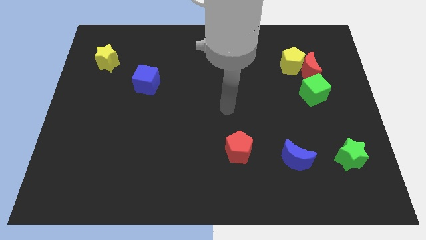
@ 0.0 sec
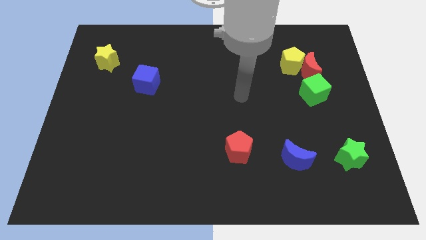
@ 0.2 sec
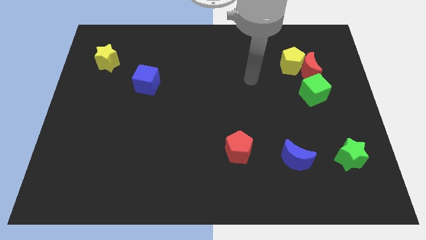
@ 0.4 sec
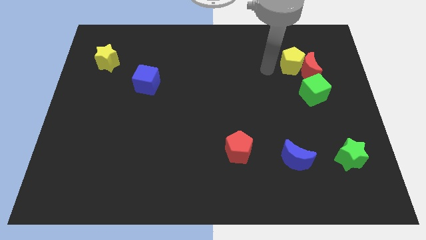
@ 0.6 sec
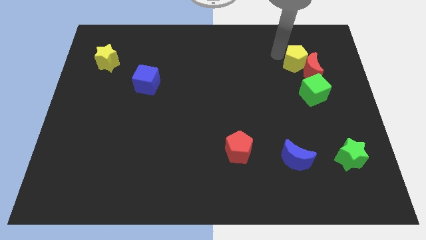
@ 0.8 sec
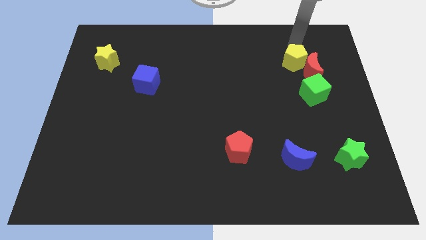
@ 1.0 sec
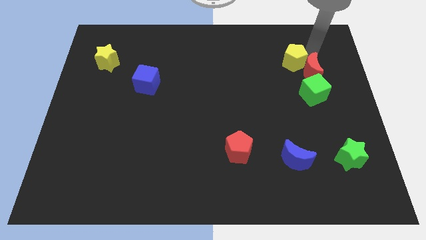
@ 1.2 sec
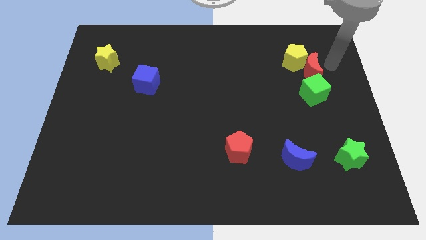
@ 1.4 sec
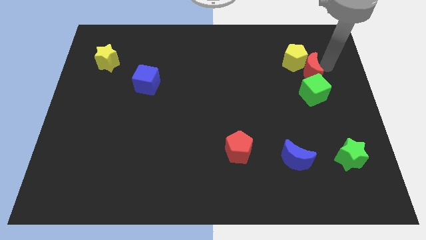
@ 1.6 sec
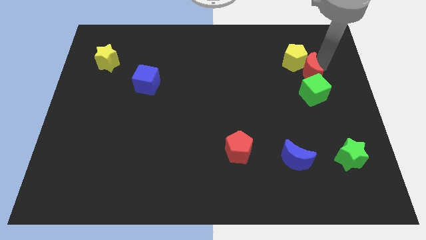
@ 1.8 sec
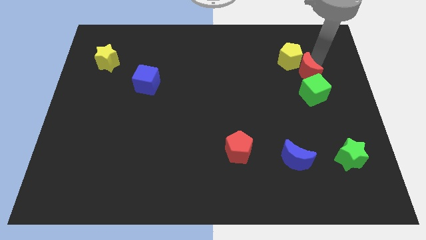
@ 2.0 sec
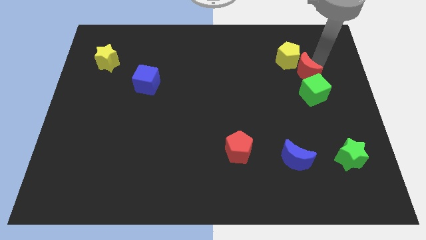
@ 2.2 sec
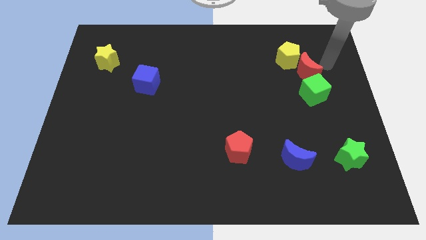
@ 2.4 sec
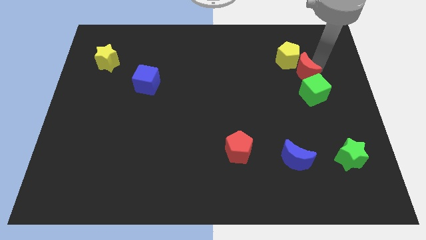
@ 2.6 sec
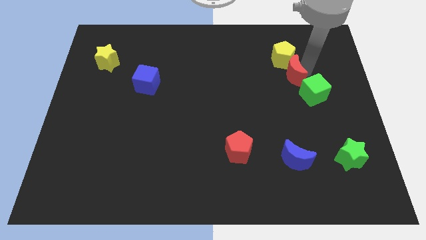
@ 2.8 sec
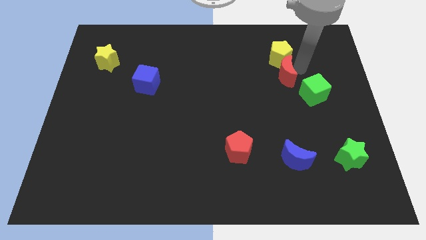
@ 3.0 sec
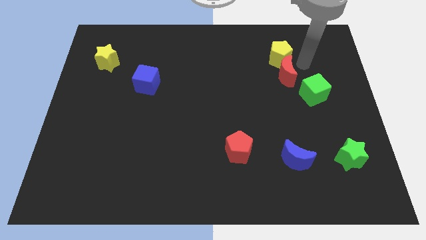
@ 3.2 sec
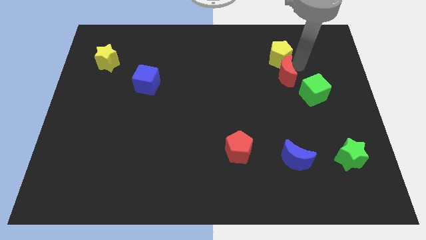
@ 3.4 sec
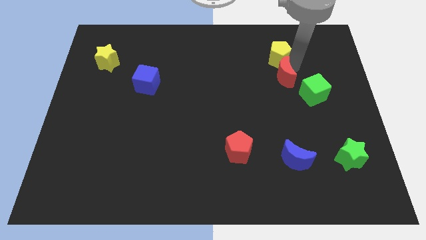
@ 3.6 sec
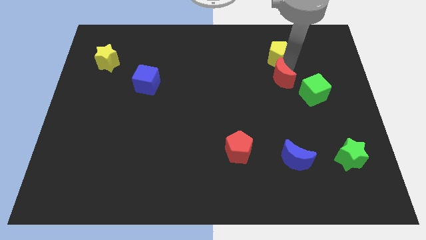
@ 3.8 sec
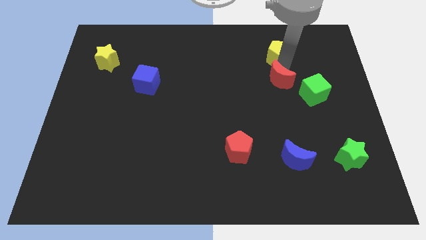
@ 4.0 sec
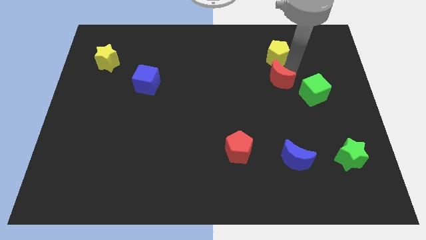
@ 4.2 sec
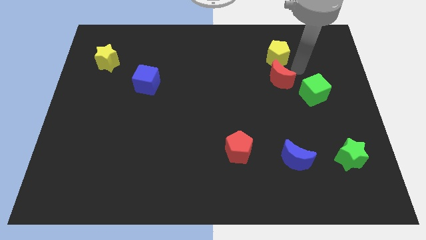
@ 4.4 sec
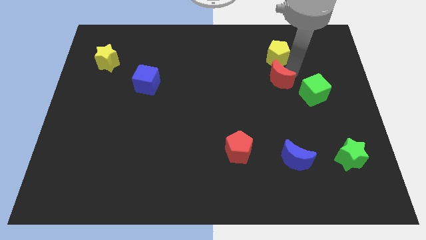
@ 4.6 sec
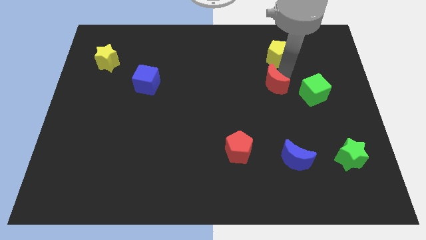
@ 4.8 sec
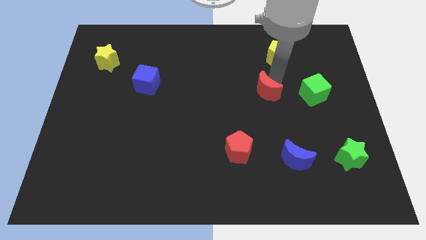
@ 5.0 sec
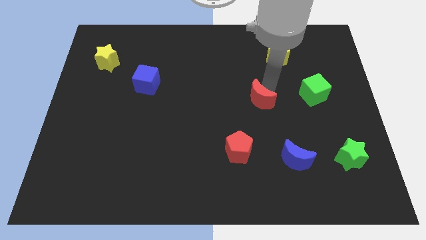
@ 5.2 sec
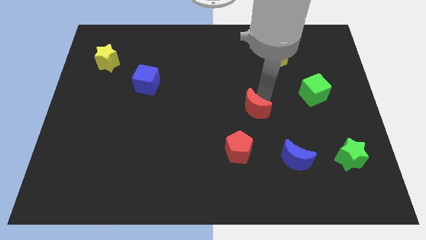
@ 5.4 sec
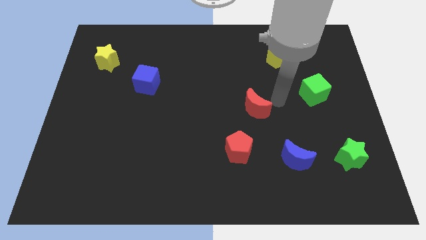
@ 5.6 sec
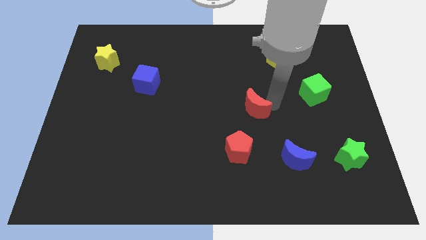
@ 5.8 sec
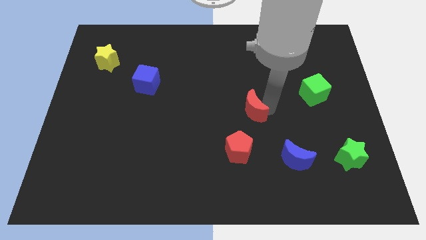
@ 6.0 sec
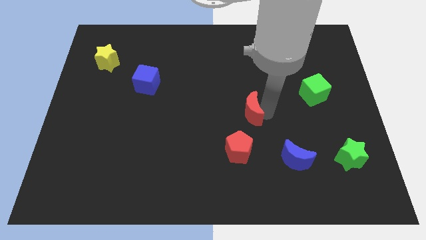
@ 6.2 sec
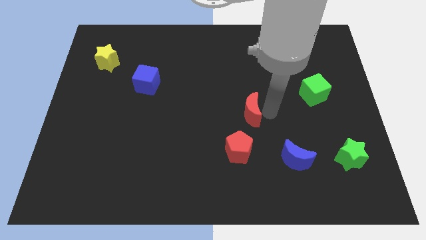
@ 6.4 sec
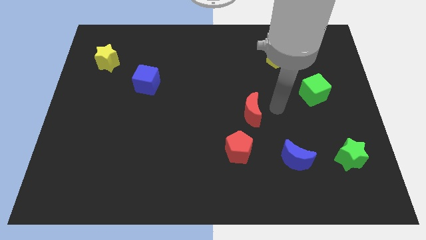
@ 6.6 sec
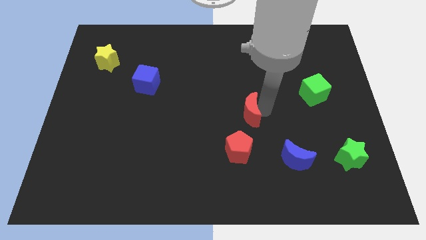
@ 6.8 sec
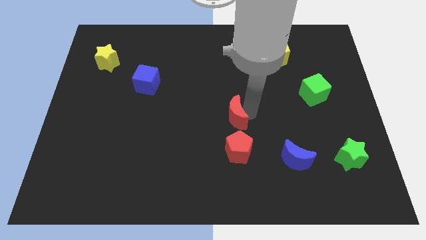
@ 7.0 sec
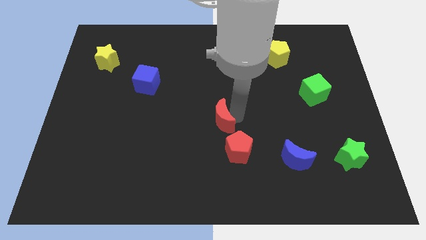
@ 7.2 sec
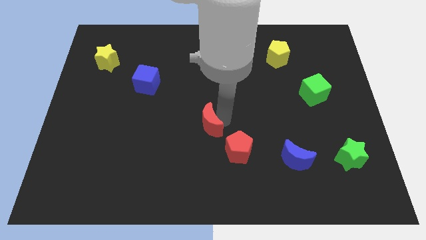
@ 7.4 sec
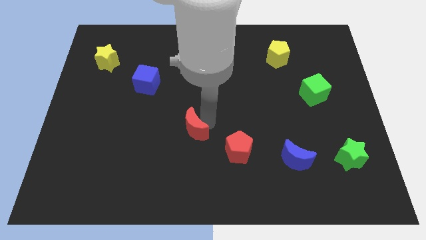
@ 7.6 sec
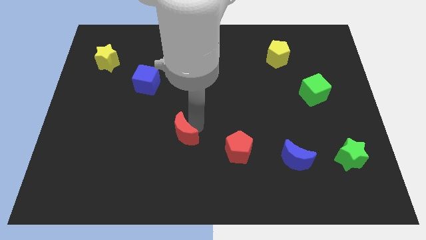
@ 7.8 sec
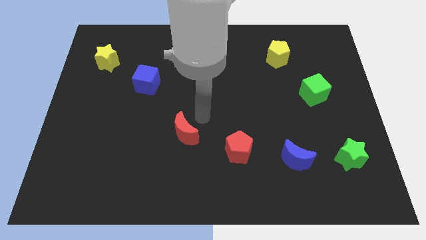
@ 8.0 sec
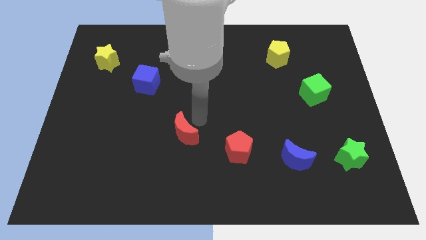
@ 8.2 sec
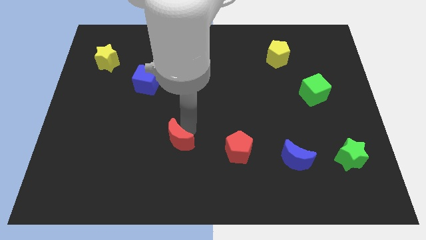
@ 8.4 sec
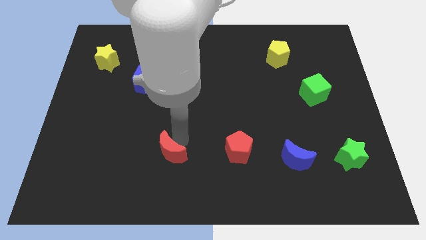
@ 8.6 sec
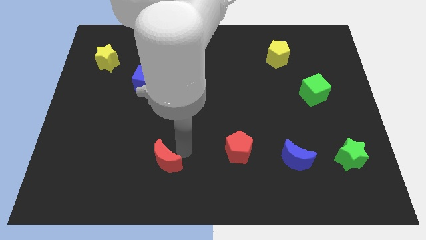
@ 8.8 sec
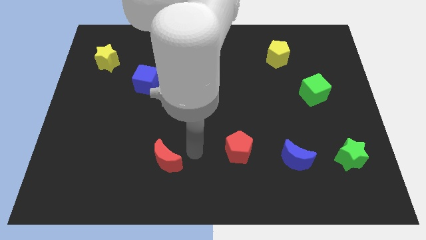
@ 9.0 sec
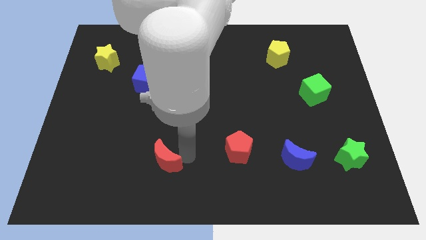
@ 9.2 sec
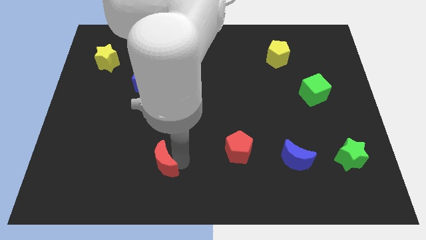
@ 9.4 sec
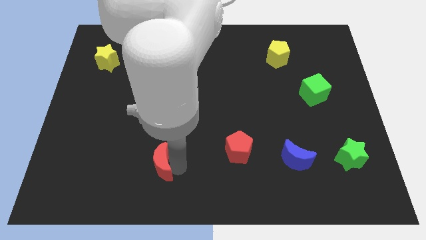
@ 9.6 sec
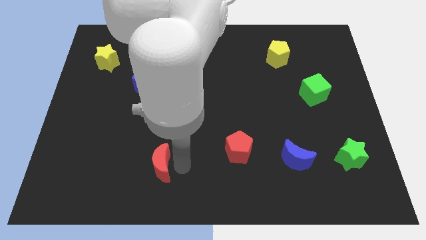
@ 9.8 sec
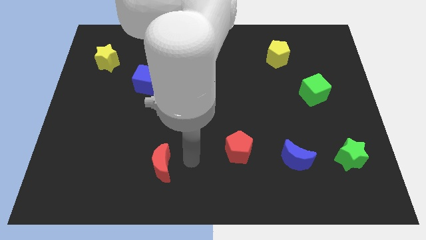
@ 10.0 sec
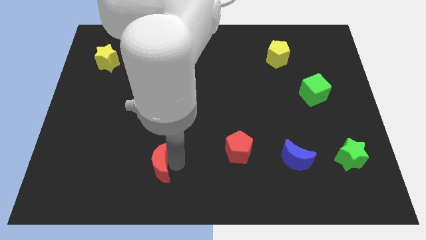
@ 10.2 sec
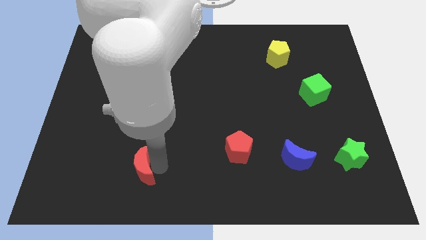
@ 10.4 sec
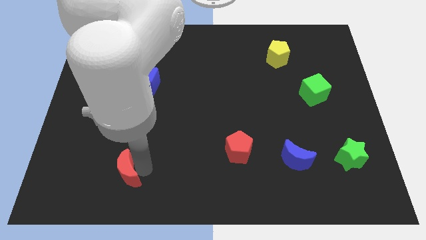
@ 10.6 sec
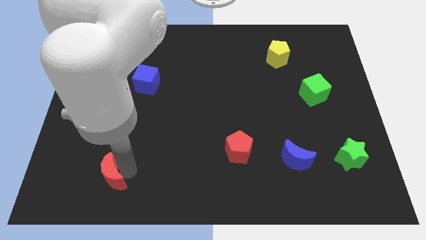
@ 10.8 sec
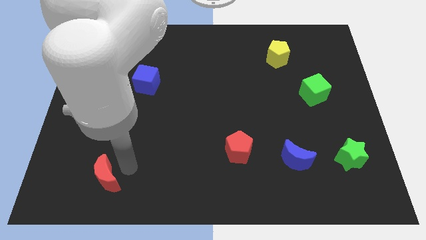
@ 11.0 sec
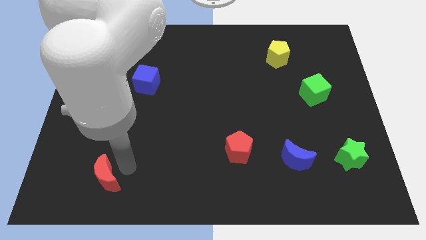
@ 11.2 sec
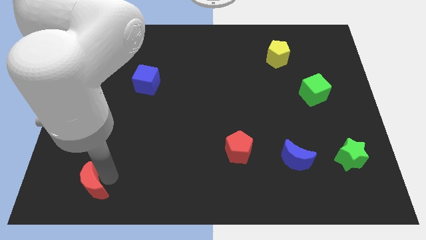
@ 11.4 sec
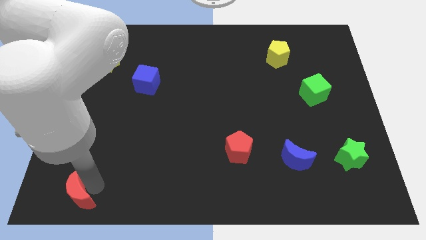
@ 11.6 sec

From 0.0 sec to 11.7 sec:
put the red moon to the lower left corner

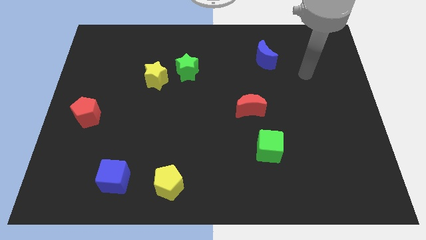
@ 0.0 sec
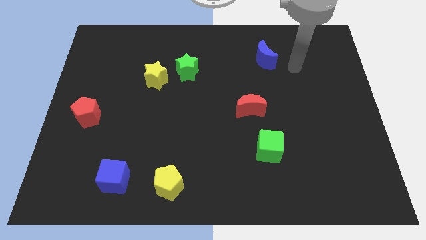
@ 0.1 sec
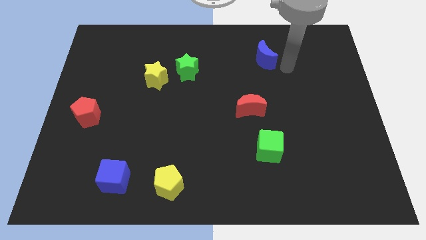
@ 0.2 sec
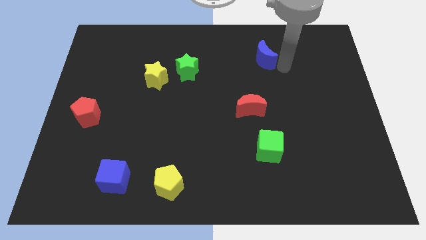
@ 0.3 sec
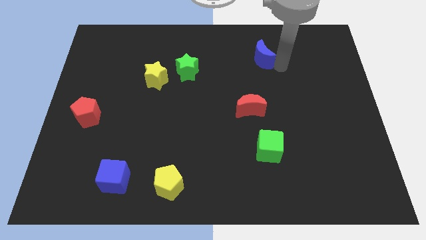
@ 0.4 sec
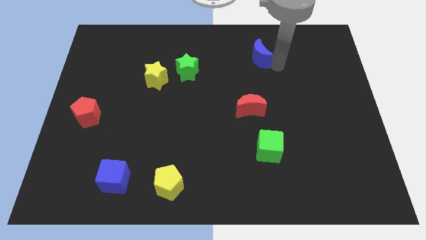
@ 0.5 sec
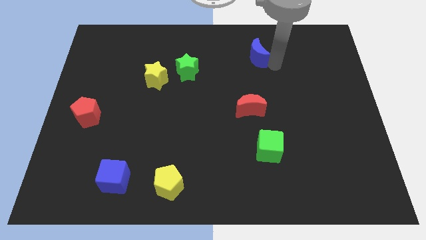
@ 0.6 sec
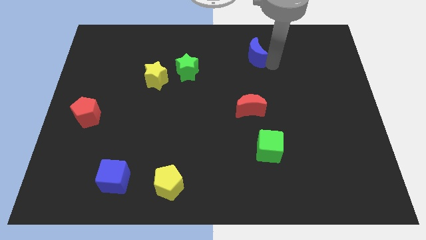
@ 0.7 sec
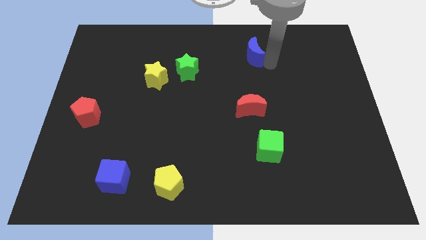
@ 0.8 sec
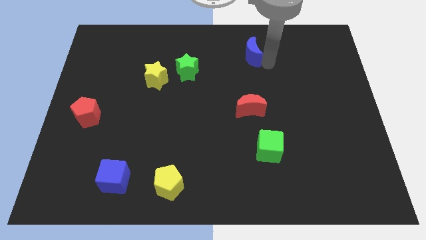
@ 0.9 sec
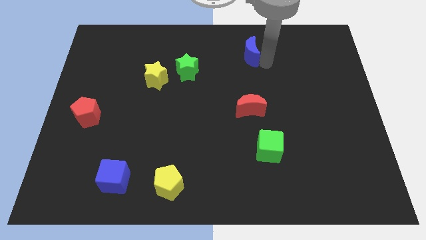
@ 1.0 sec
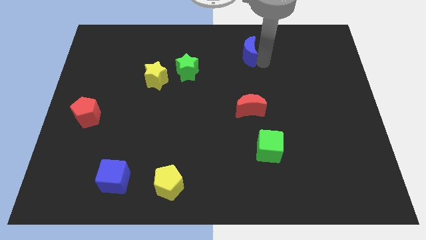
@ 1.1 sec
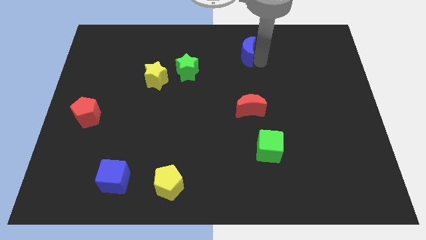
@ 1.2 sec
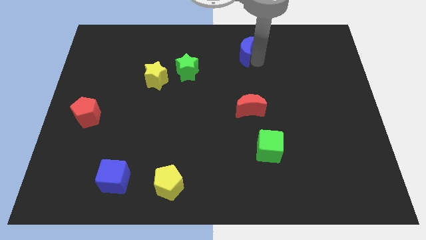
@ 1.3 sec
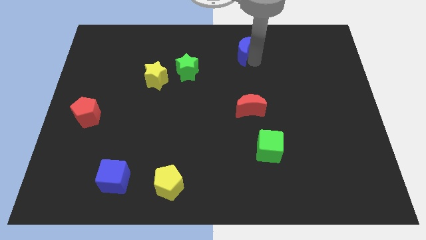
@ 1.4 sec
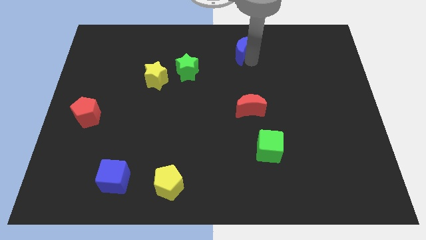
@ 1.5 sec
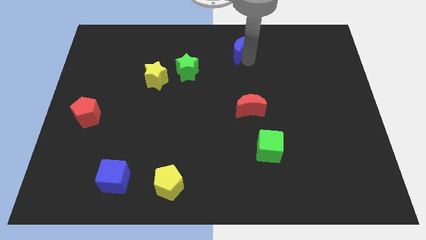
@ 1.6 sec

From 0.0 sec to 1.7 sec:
push the blue moon to the towards your base
